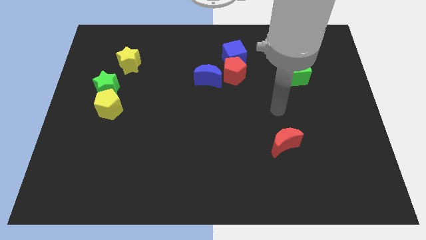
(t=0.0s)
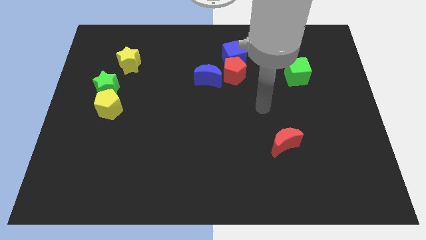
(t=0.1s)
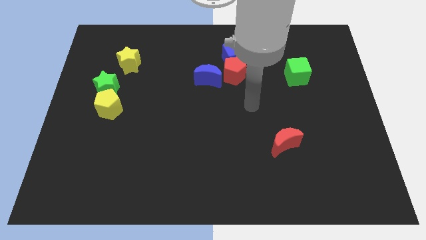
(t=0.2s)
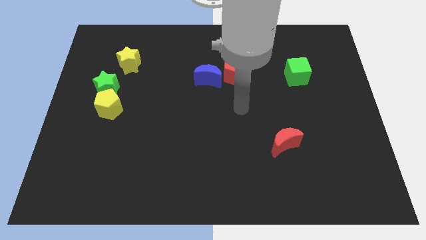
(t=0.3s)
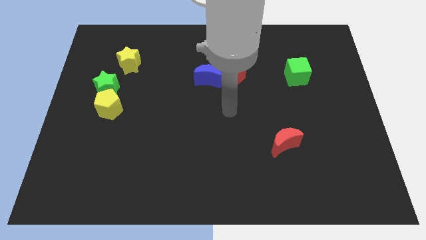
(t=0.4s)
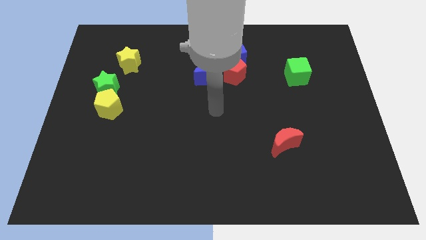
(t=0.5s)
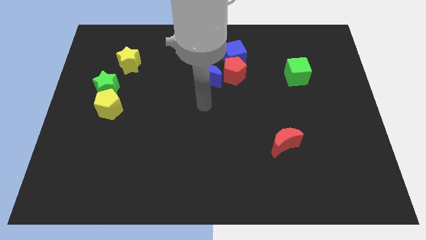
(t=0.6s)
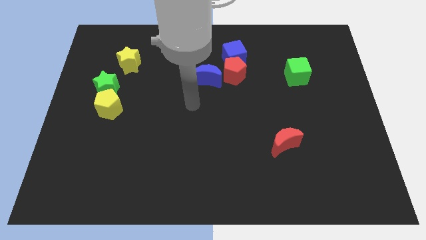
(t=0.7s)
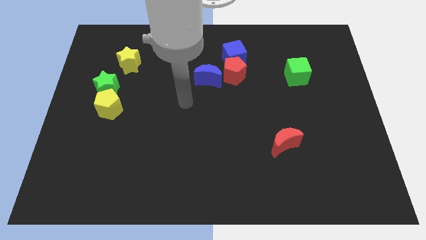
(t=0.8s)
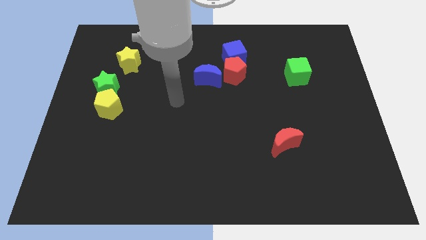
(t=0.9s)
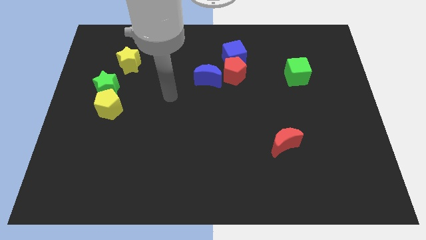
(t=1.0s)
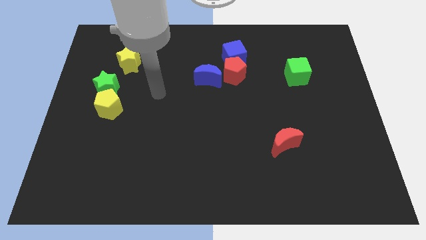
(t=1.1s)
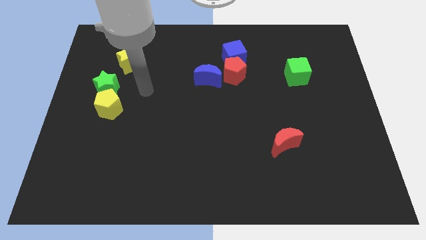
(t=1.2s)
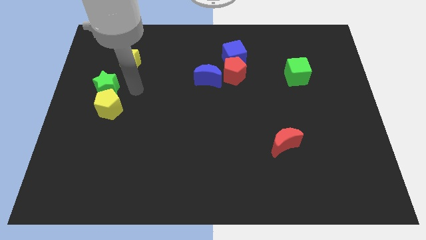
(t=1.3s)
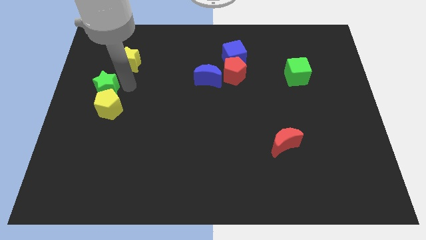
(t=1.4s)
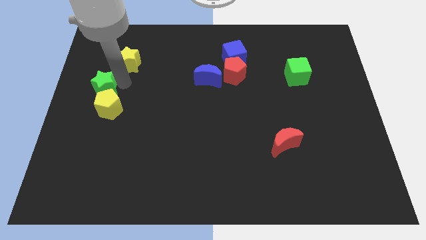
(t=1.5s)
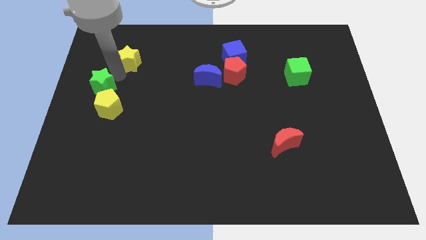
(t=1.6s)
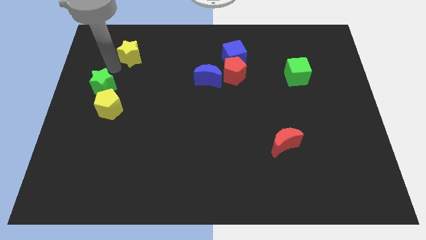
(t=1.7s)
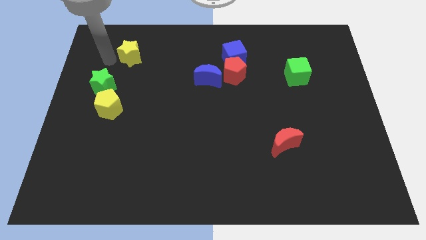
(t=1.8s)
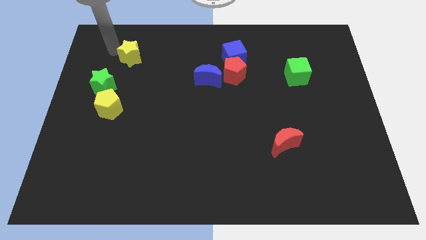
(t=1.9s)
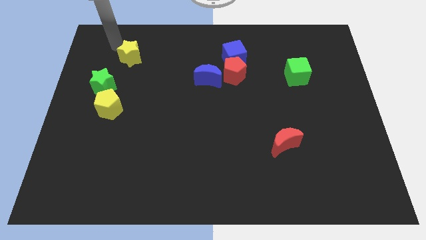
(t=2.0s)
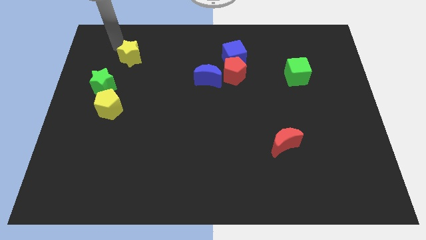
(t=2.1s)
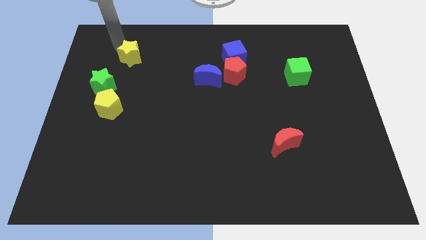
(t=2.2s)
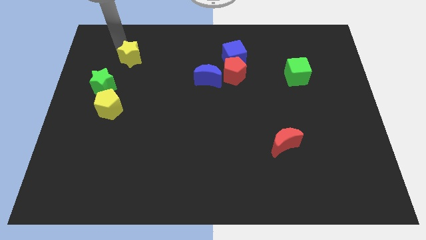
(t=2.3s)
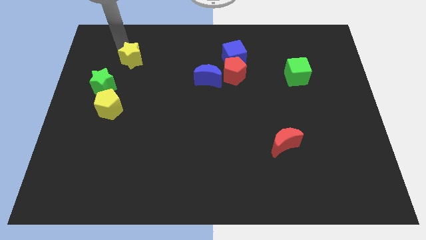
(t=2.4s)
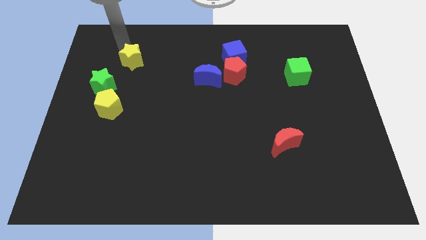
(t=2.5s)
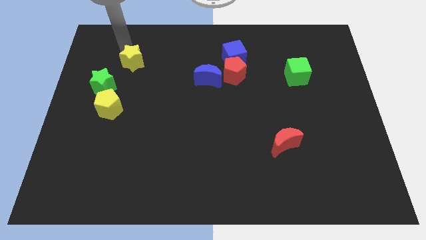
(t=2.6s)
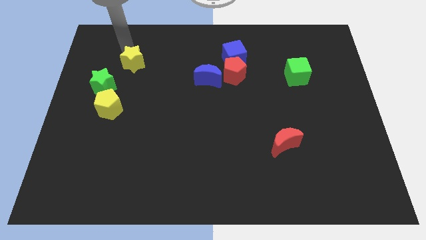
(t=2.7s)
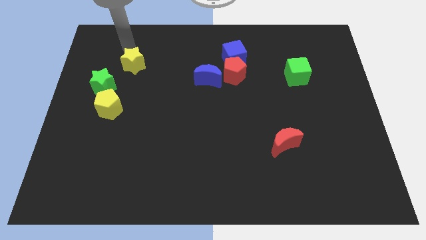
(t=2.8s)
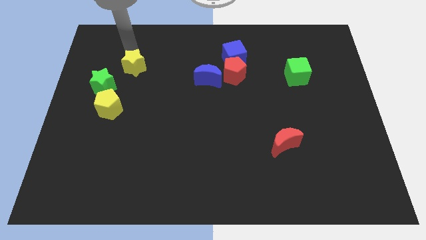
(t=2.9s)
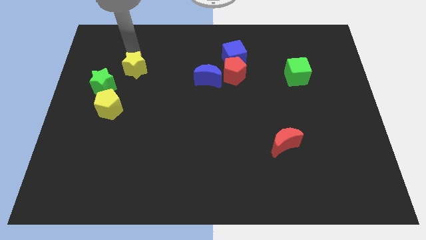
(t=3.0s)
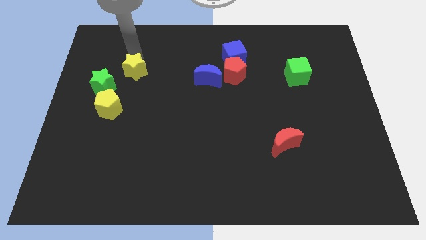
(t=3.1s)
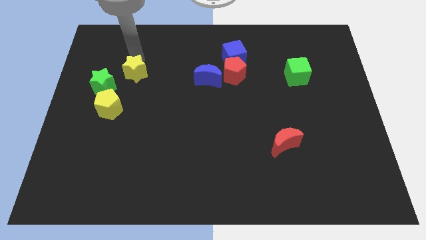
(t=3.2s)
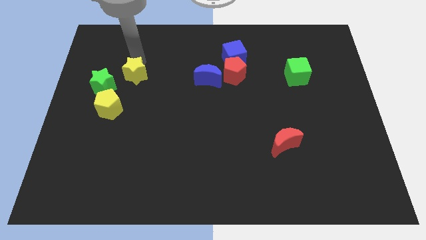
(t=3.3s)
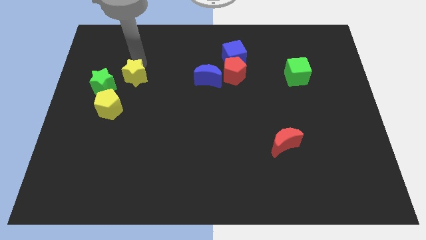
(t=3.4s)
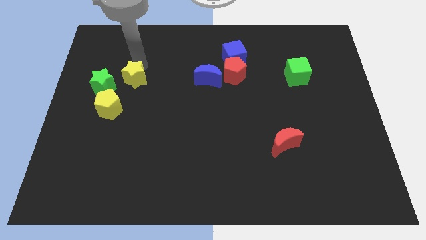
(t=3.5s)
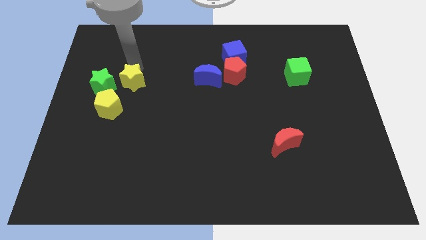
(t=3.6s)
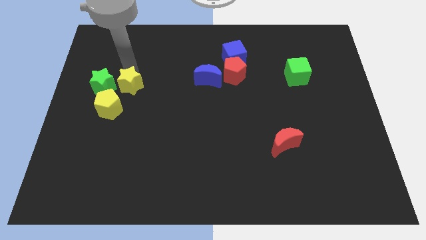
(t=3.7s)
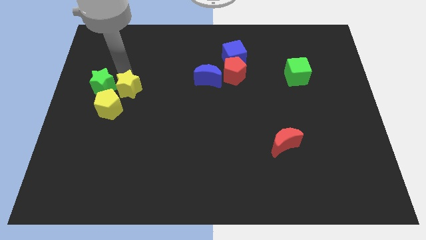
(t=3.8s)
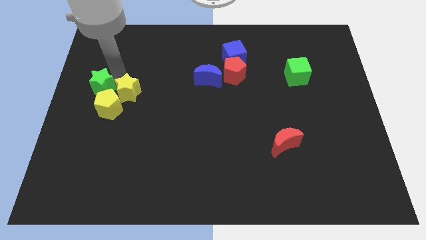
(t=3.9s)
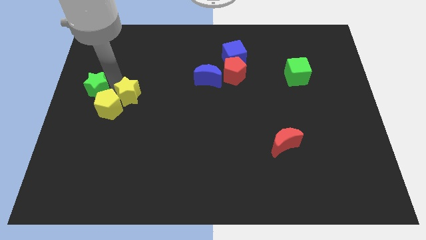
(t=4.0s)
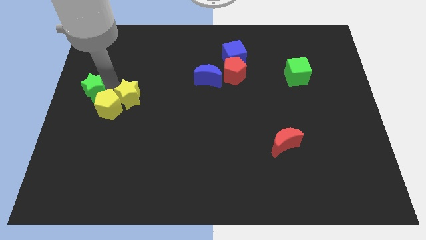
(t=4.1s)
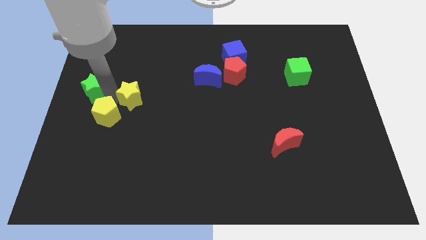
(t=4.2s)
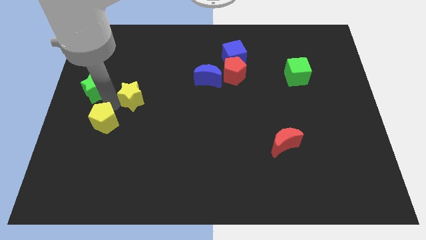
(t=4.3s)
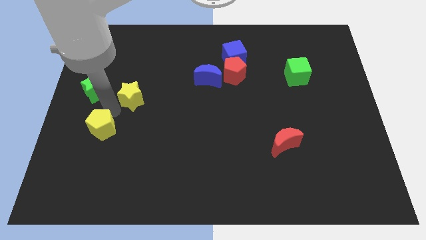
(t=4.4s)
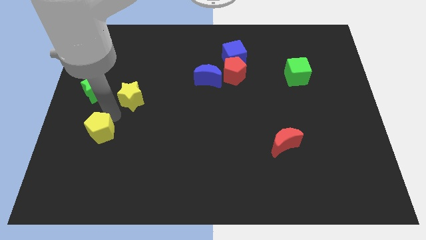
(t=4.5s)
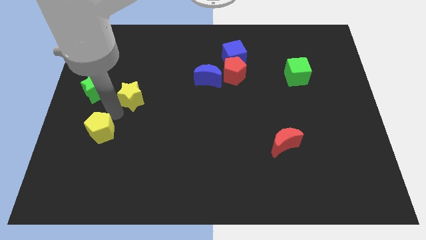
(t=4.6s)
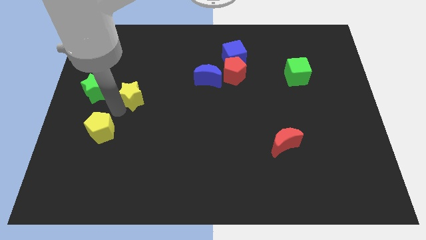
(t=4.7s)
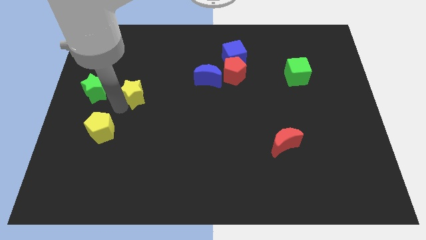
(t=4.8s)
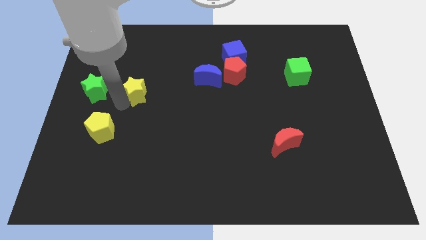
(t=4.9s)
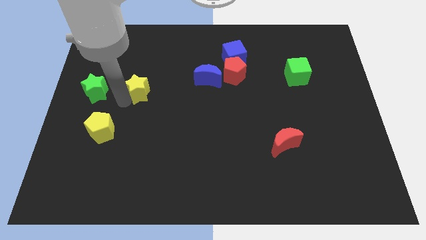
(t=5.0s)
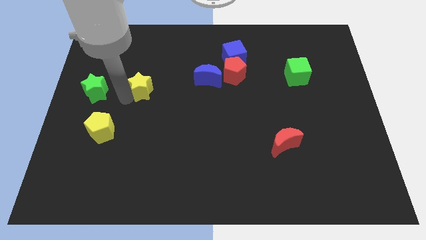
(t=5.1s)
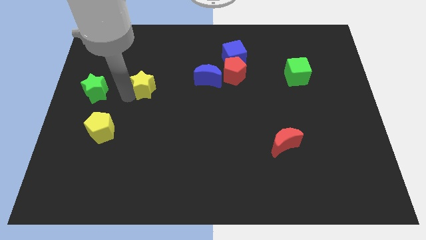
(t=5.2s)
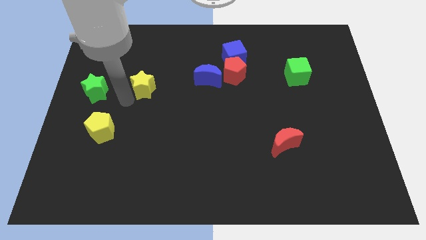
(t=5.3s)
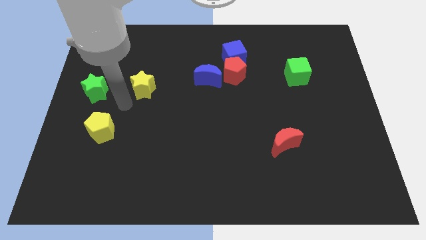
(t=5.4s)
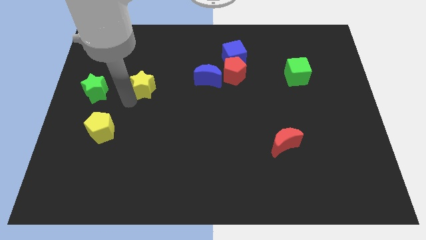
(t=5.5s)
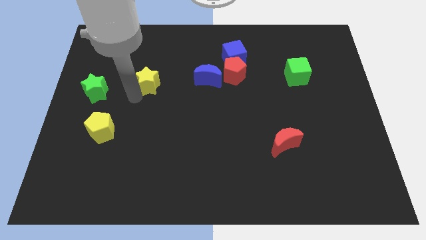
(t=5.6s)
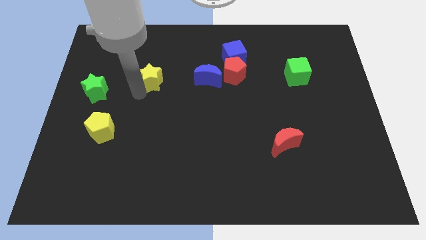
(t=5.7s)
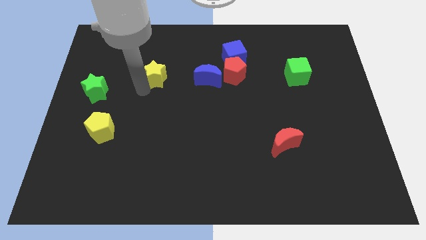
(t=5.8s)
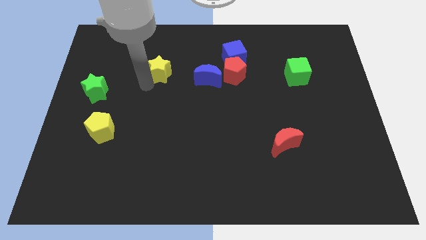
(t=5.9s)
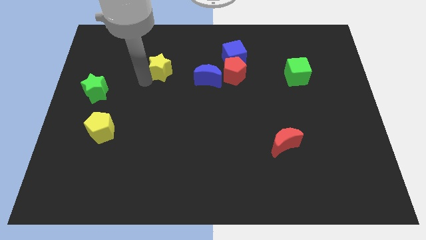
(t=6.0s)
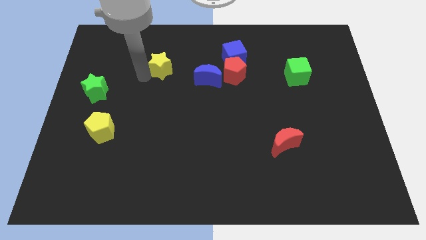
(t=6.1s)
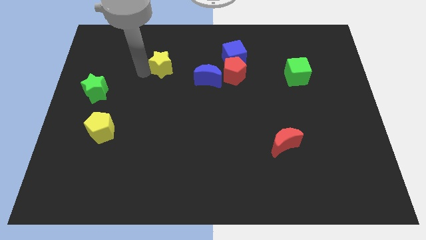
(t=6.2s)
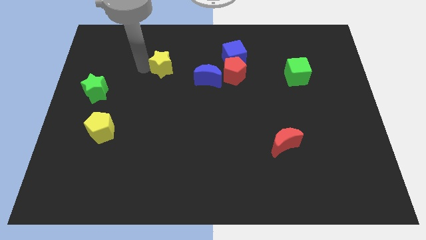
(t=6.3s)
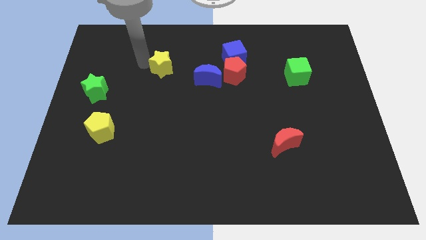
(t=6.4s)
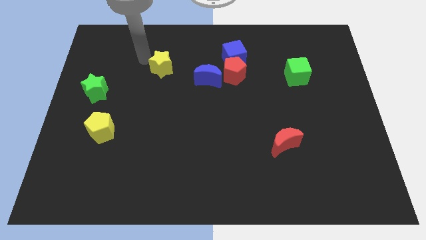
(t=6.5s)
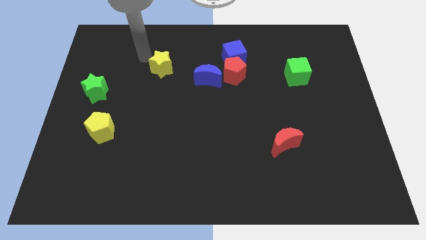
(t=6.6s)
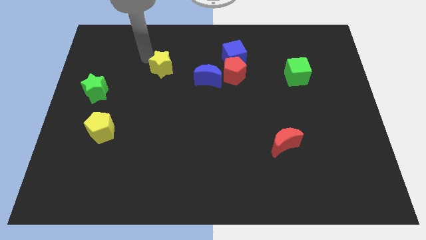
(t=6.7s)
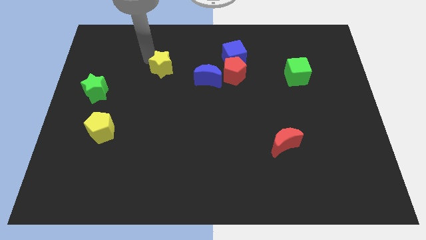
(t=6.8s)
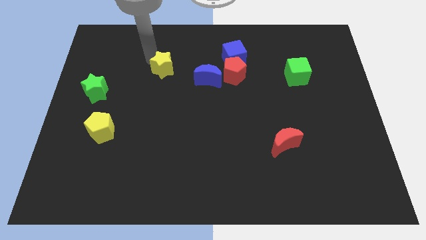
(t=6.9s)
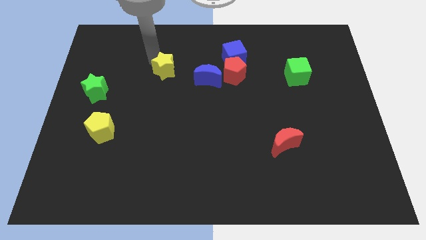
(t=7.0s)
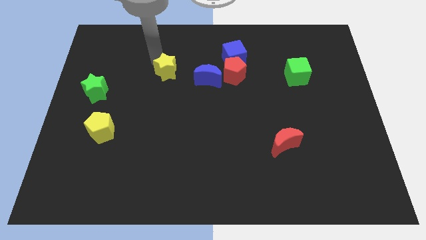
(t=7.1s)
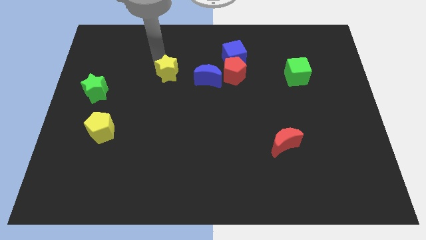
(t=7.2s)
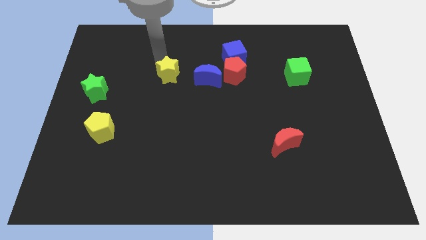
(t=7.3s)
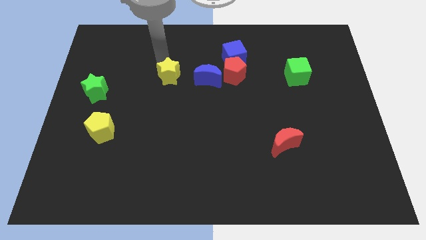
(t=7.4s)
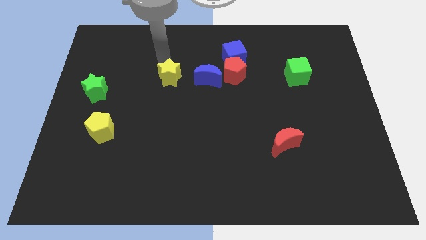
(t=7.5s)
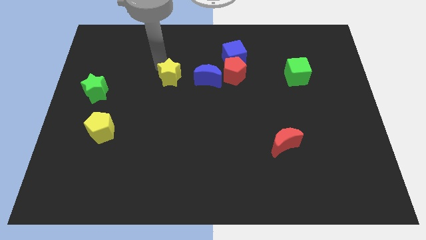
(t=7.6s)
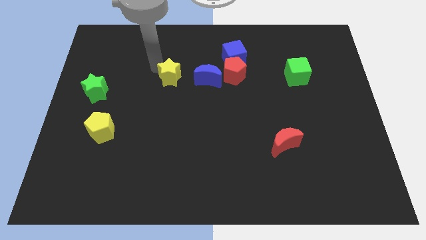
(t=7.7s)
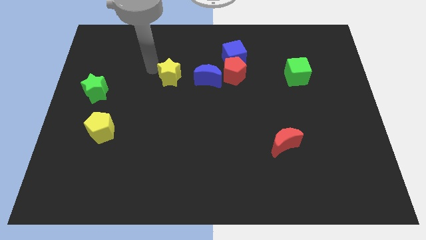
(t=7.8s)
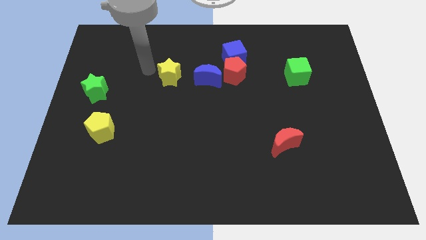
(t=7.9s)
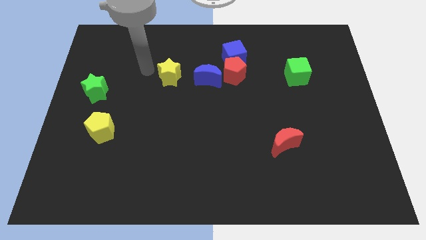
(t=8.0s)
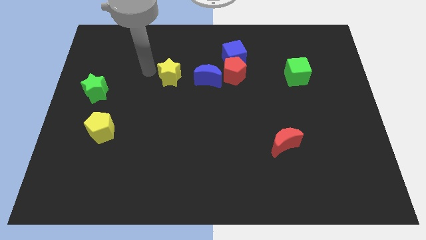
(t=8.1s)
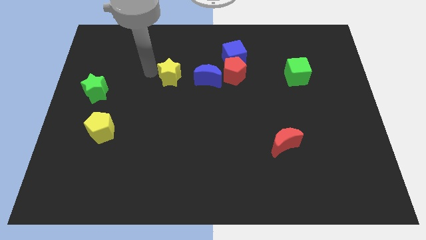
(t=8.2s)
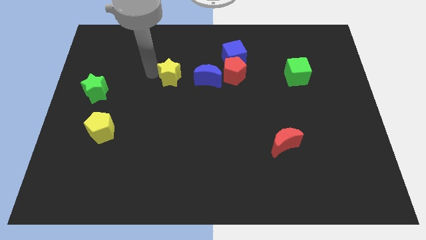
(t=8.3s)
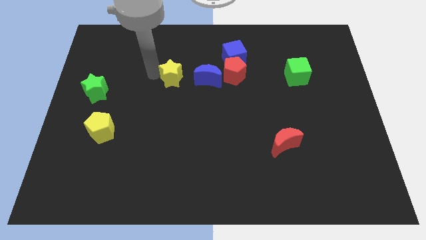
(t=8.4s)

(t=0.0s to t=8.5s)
slide the yellow star to the center of the board
